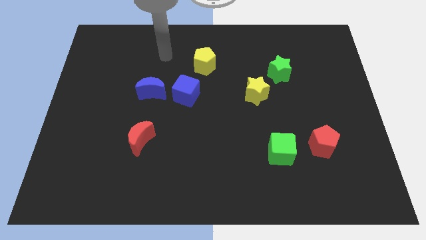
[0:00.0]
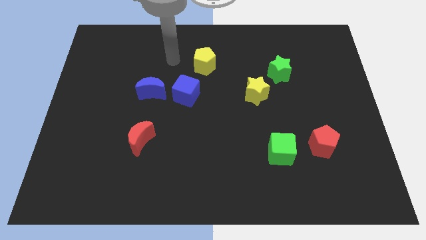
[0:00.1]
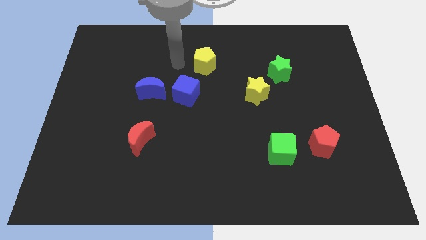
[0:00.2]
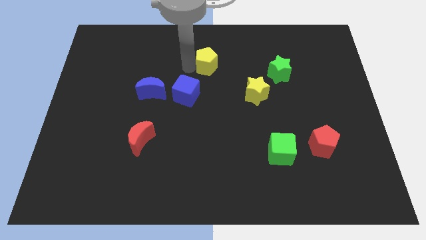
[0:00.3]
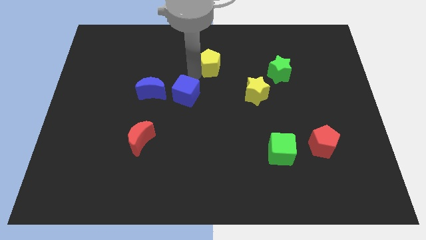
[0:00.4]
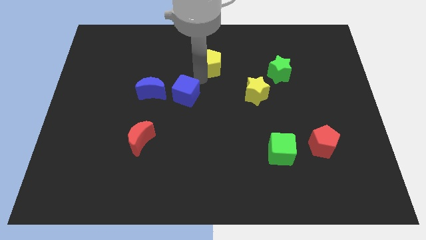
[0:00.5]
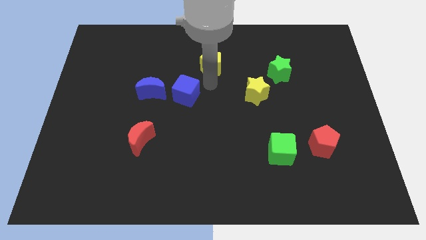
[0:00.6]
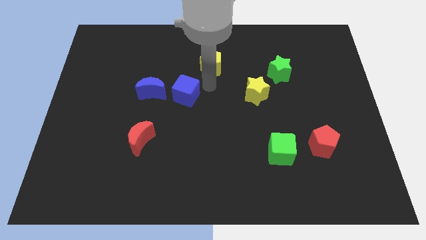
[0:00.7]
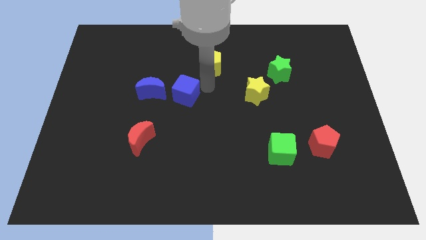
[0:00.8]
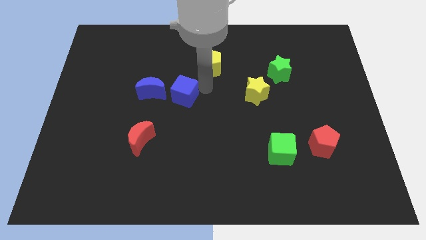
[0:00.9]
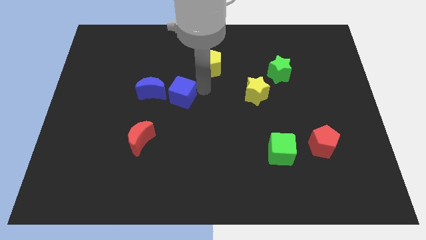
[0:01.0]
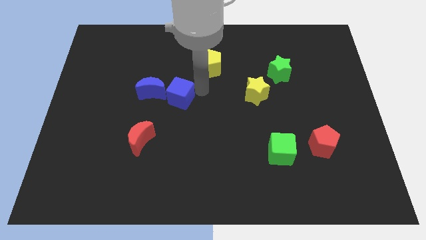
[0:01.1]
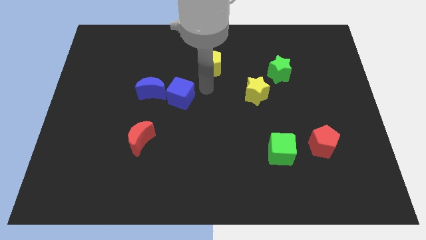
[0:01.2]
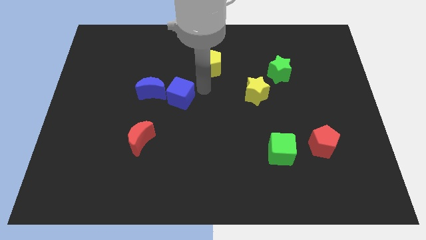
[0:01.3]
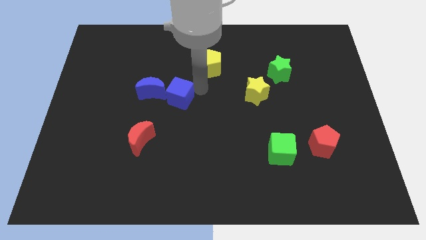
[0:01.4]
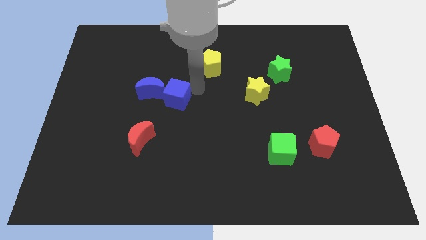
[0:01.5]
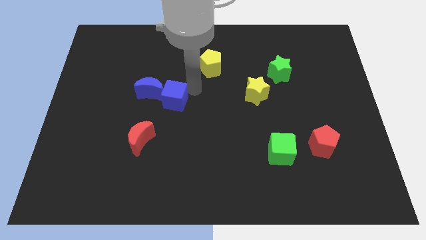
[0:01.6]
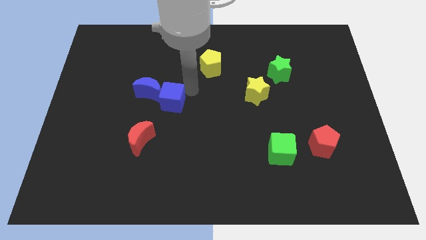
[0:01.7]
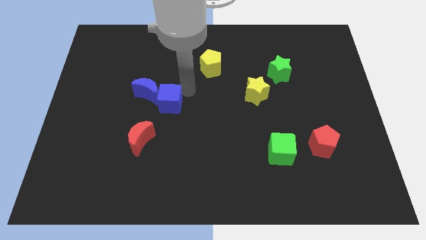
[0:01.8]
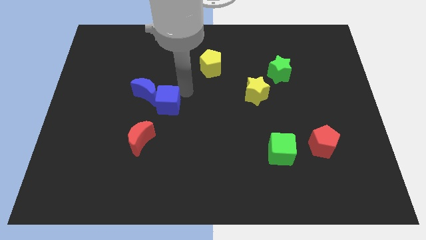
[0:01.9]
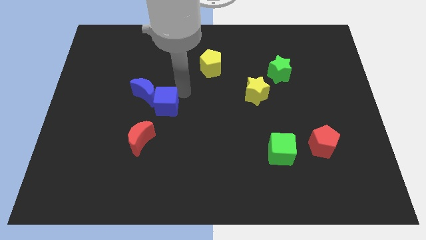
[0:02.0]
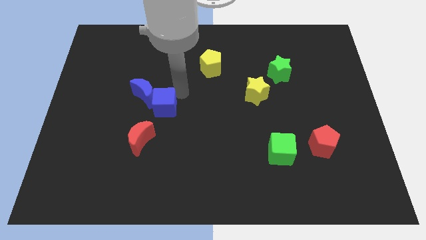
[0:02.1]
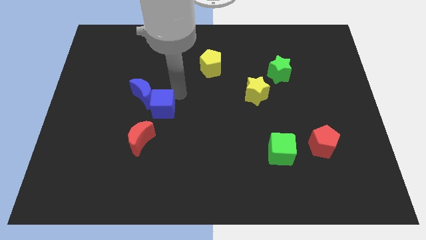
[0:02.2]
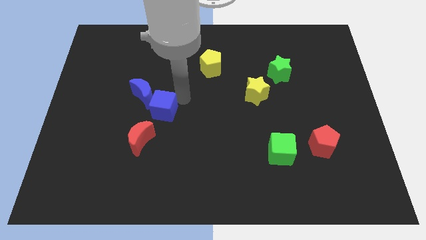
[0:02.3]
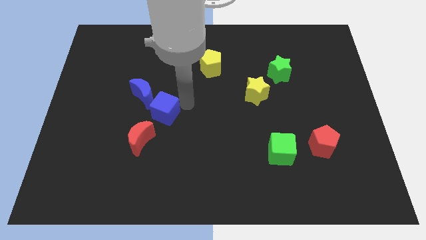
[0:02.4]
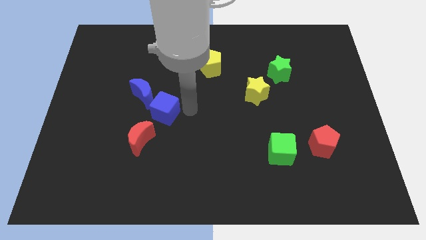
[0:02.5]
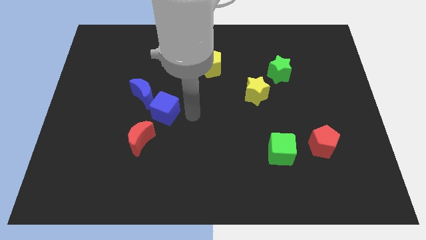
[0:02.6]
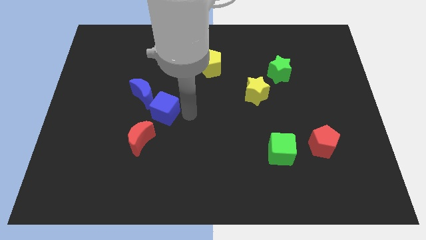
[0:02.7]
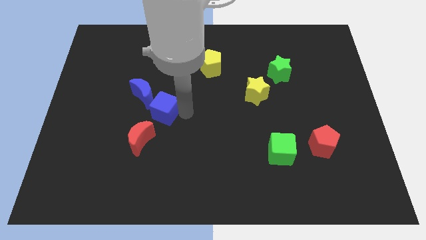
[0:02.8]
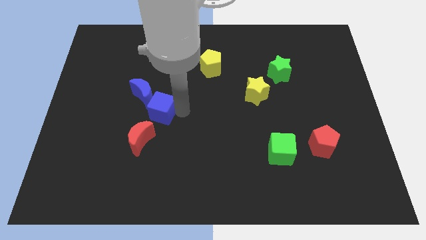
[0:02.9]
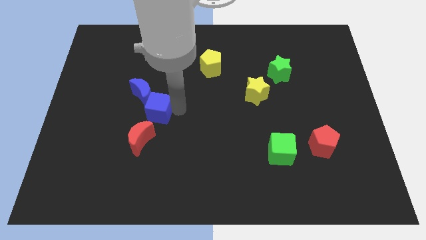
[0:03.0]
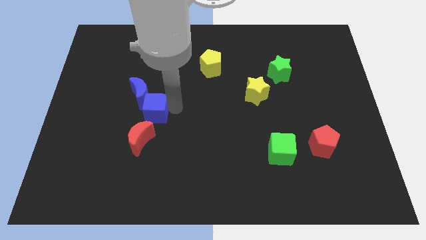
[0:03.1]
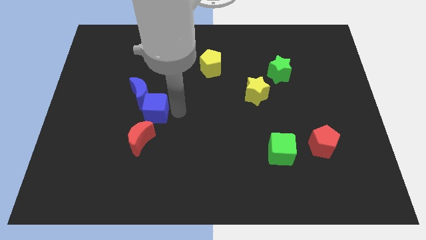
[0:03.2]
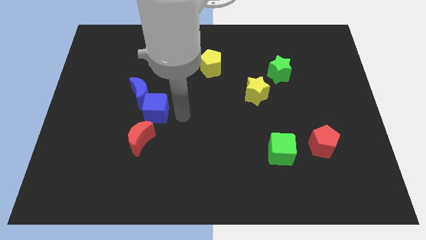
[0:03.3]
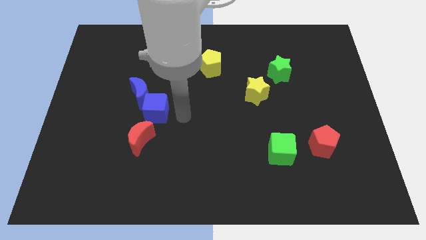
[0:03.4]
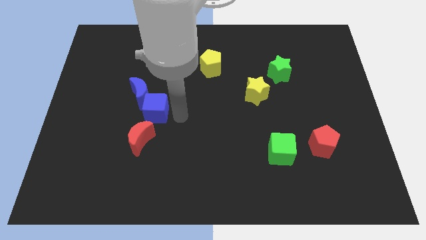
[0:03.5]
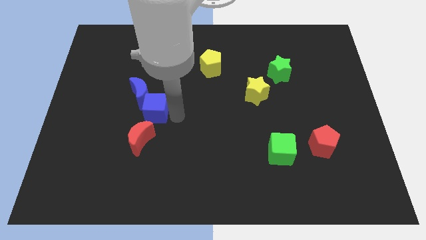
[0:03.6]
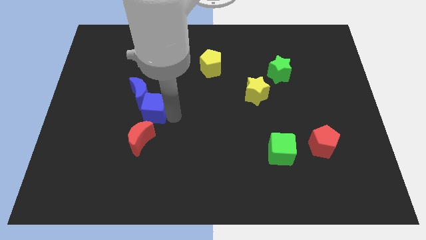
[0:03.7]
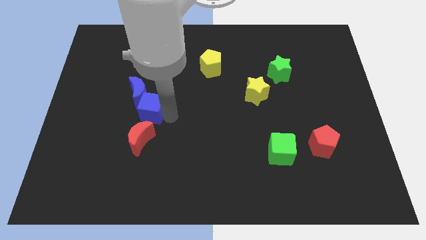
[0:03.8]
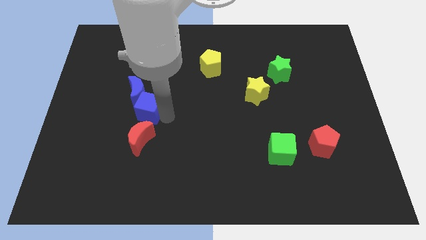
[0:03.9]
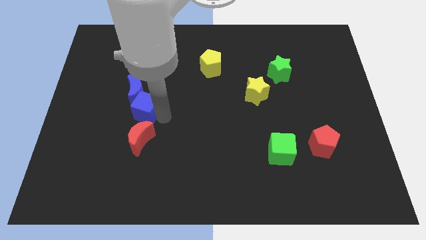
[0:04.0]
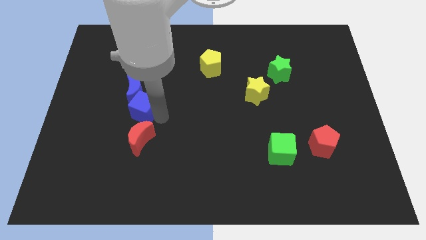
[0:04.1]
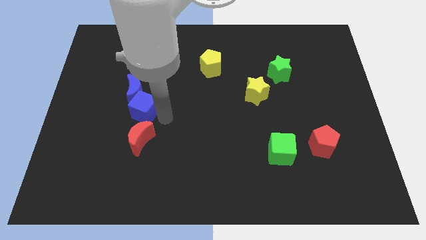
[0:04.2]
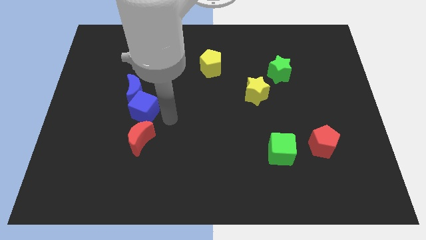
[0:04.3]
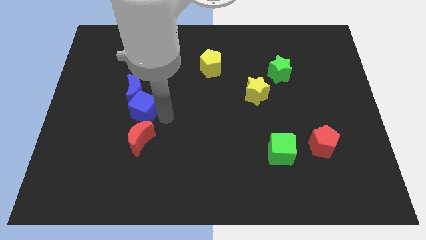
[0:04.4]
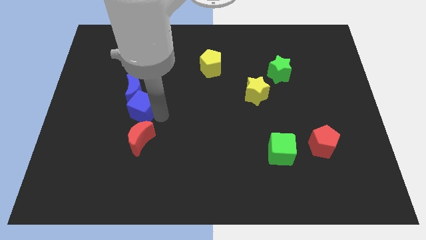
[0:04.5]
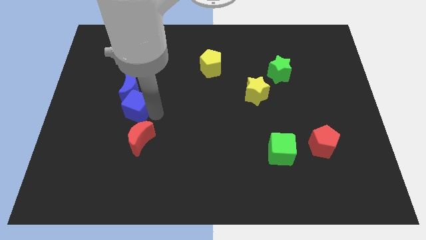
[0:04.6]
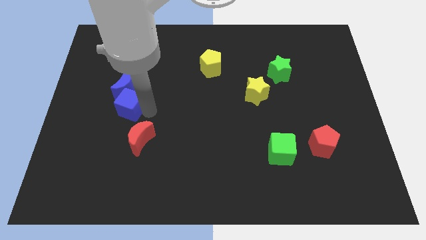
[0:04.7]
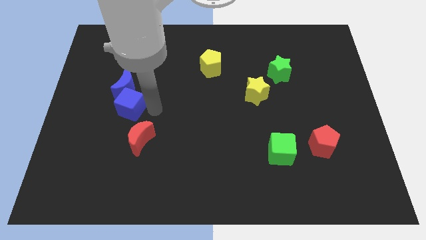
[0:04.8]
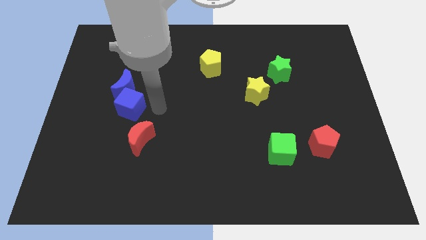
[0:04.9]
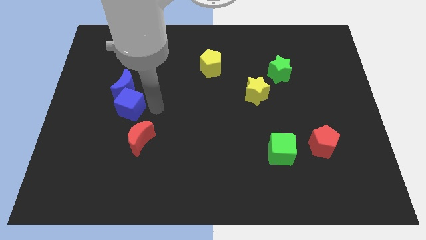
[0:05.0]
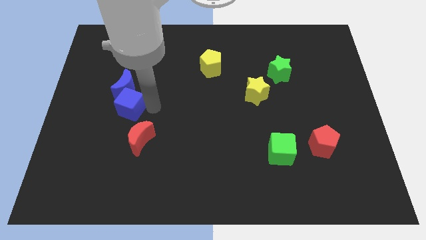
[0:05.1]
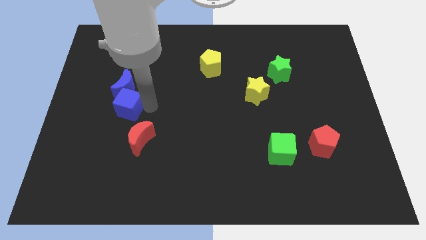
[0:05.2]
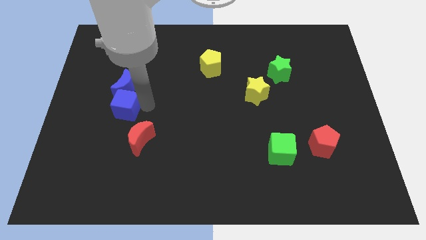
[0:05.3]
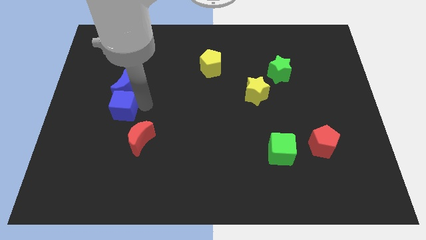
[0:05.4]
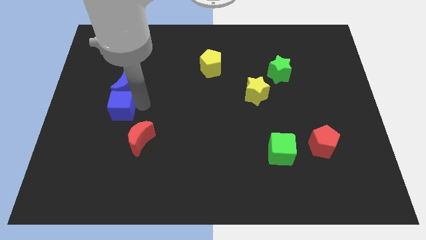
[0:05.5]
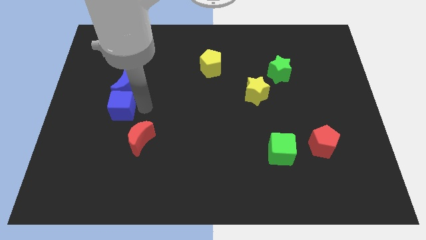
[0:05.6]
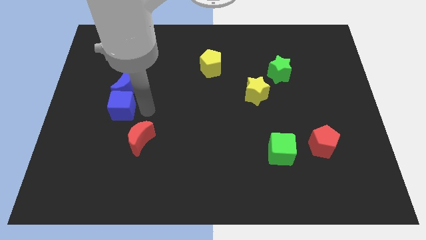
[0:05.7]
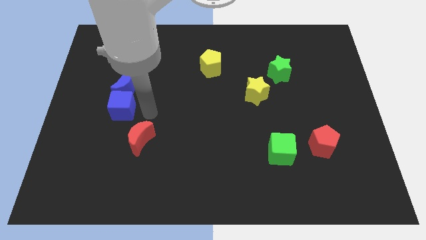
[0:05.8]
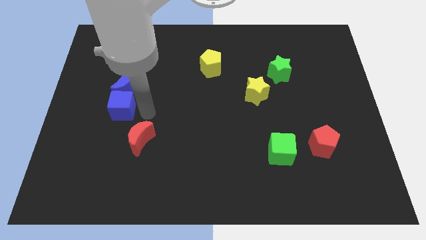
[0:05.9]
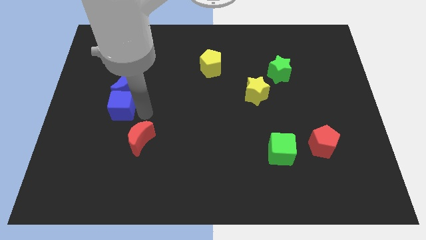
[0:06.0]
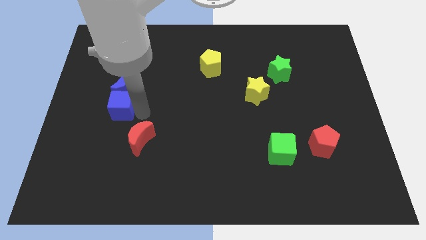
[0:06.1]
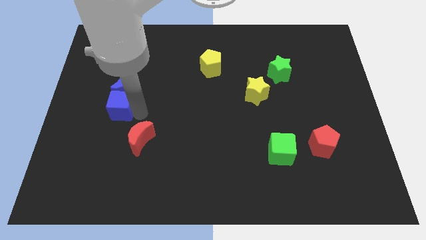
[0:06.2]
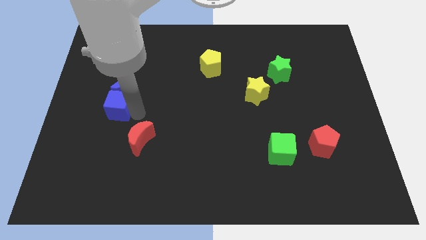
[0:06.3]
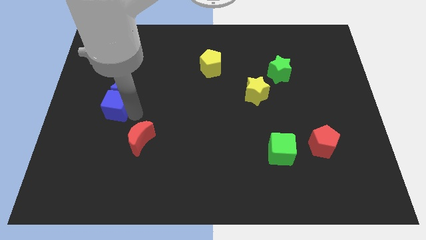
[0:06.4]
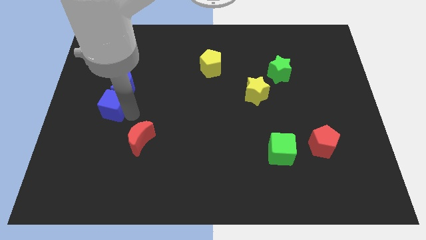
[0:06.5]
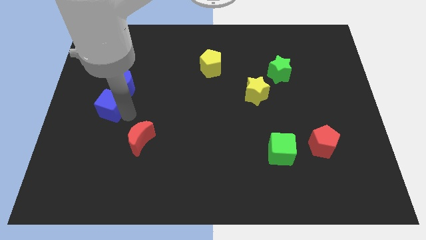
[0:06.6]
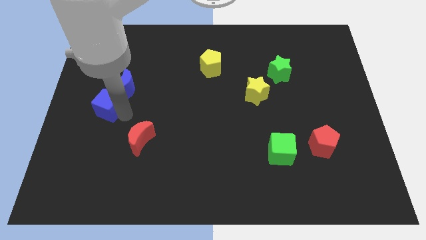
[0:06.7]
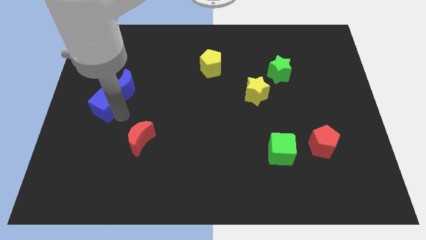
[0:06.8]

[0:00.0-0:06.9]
slide the blue cube to the left side

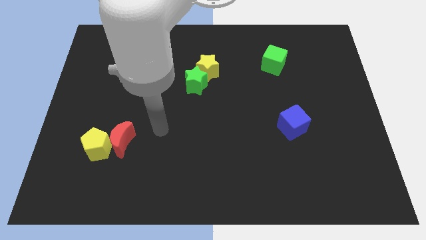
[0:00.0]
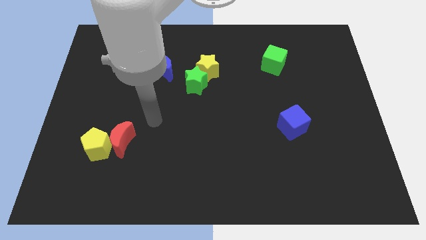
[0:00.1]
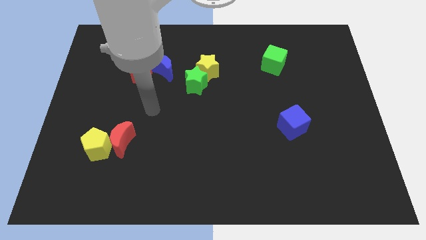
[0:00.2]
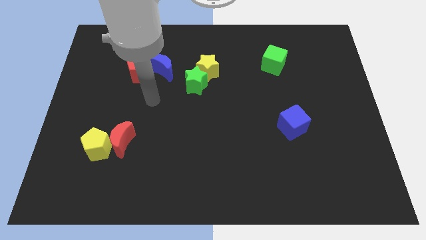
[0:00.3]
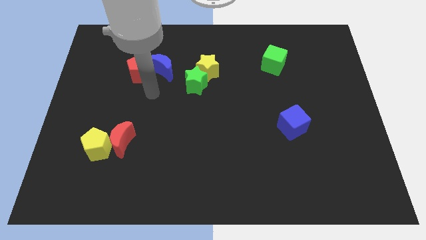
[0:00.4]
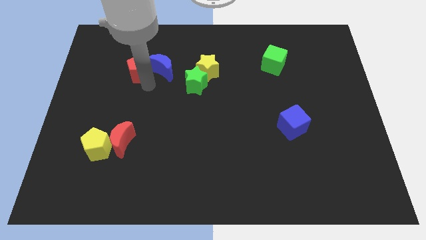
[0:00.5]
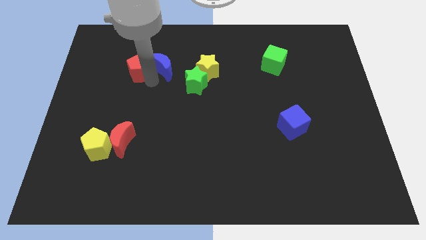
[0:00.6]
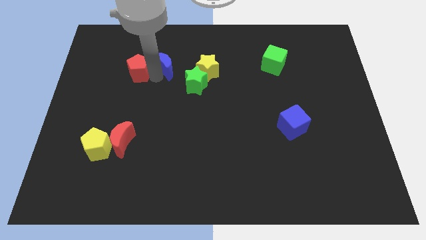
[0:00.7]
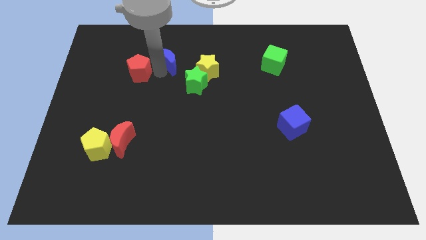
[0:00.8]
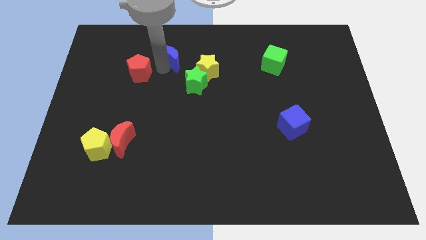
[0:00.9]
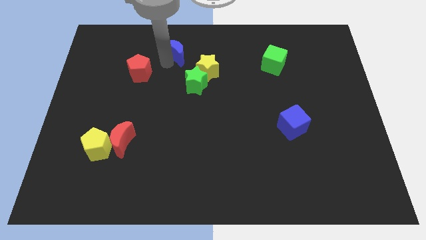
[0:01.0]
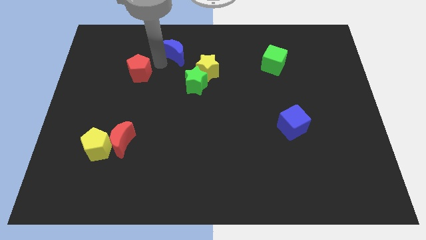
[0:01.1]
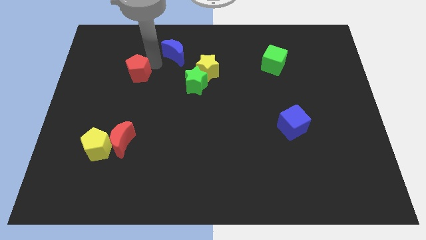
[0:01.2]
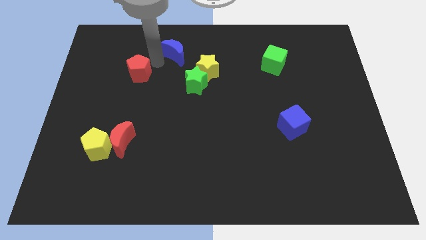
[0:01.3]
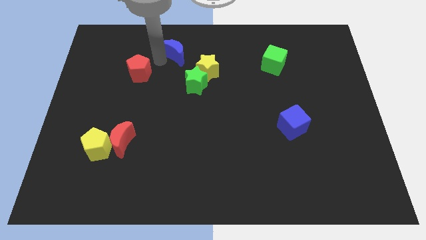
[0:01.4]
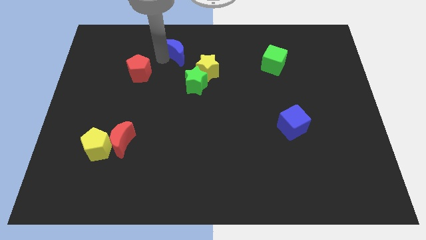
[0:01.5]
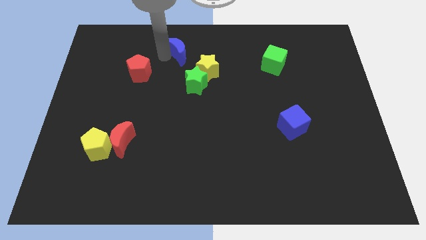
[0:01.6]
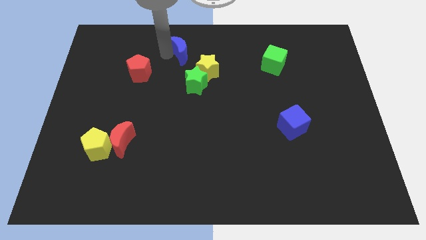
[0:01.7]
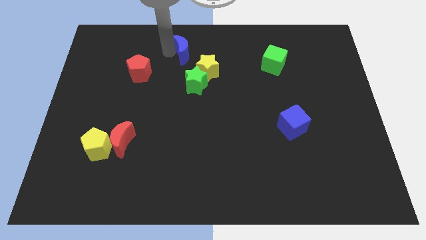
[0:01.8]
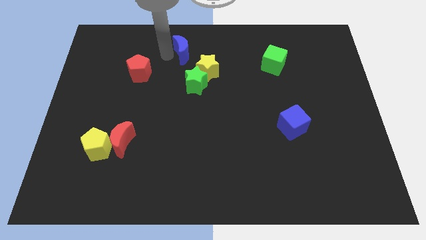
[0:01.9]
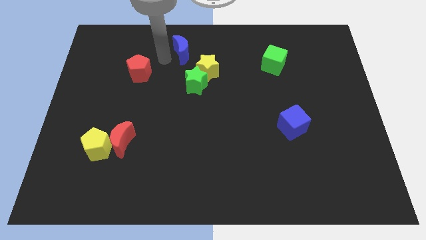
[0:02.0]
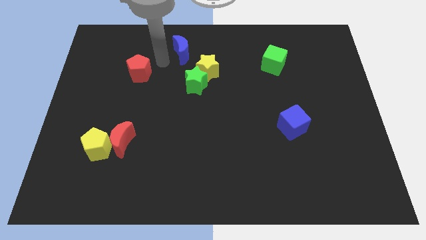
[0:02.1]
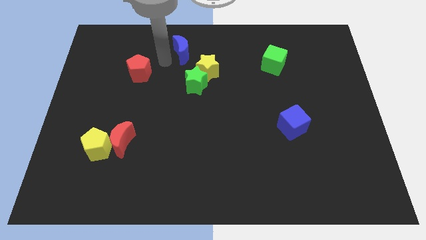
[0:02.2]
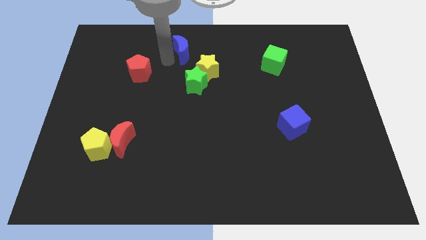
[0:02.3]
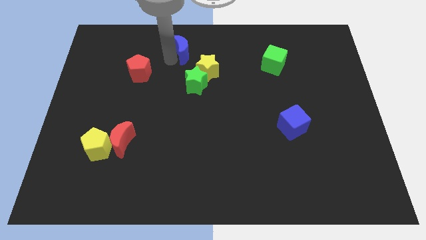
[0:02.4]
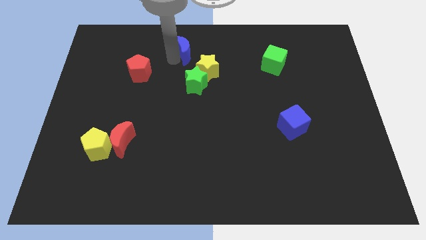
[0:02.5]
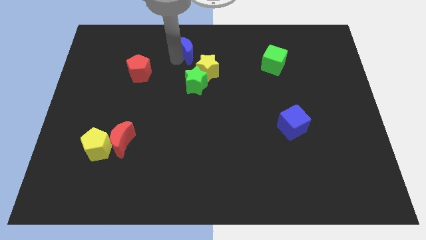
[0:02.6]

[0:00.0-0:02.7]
put the blue moon to the top
